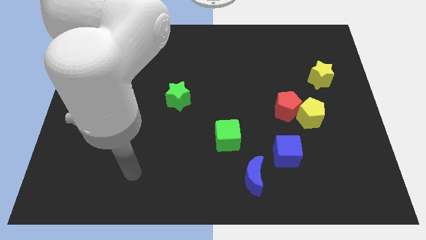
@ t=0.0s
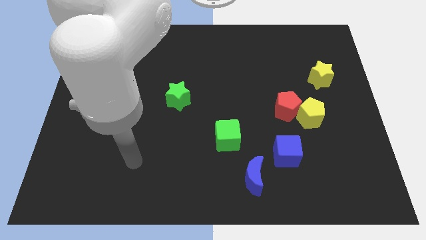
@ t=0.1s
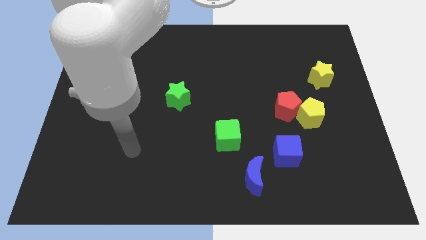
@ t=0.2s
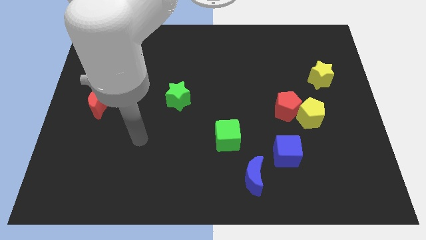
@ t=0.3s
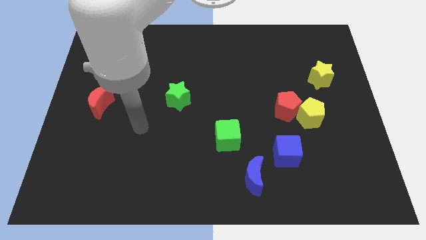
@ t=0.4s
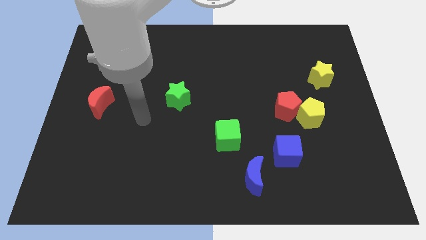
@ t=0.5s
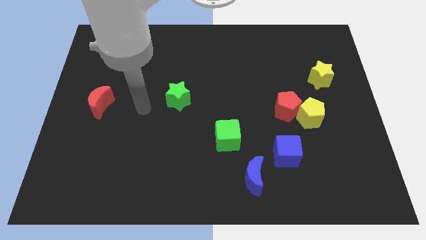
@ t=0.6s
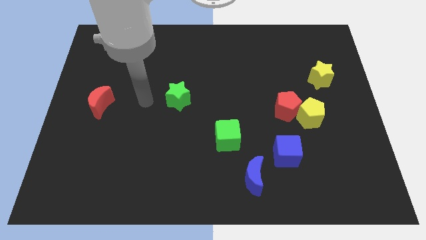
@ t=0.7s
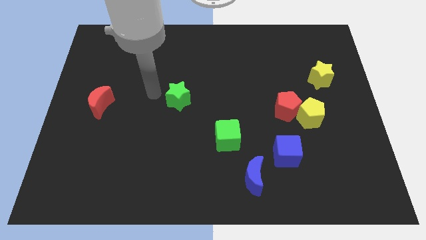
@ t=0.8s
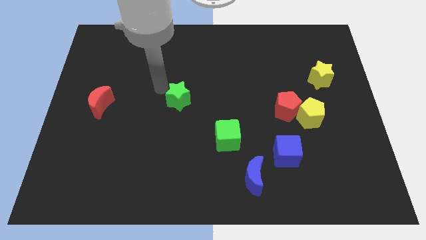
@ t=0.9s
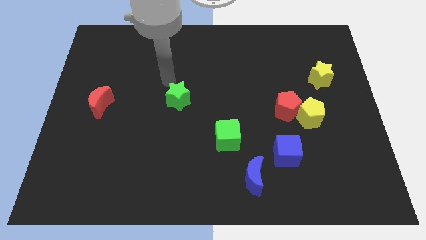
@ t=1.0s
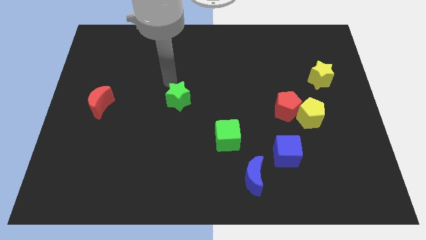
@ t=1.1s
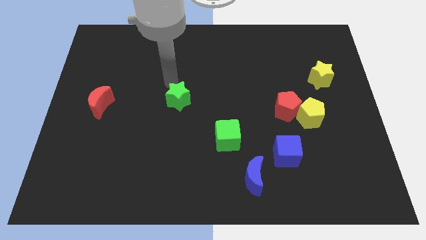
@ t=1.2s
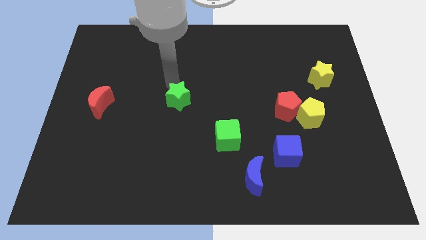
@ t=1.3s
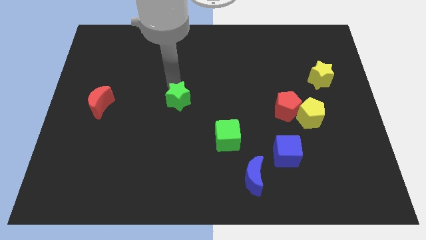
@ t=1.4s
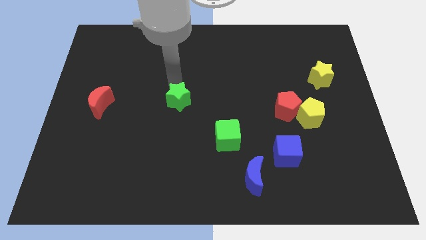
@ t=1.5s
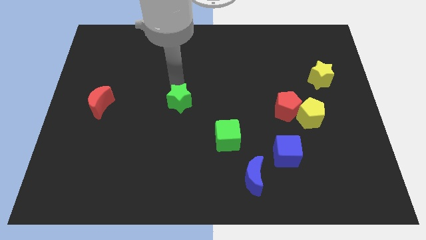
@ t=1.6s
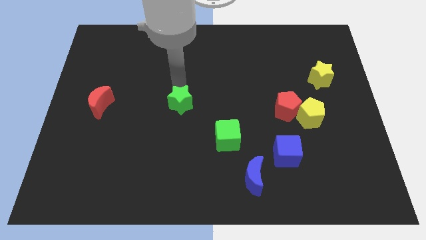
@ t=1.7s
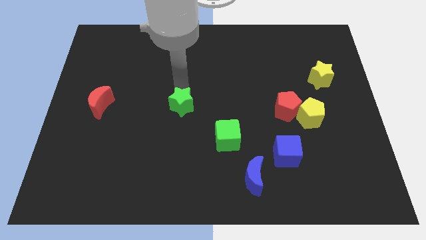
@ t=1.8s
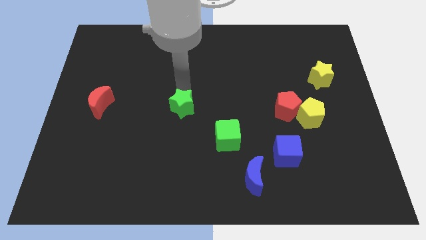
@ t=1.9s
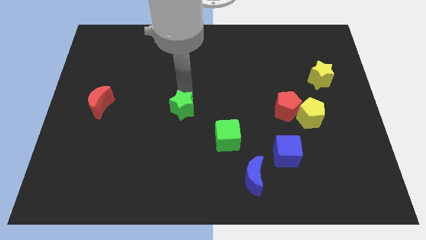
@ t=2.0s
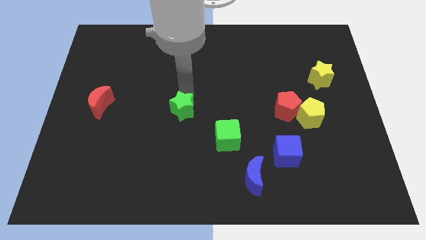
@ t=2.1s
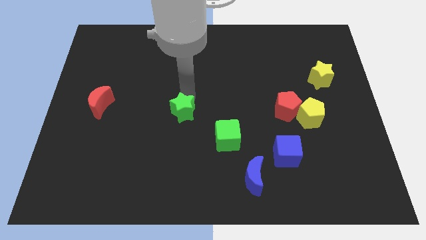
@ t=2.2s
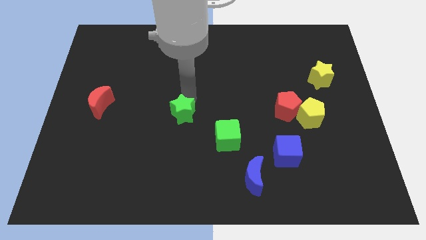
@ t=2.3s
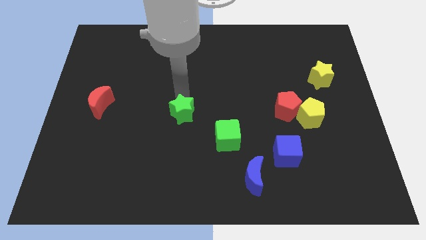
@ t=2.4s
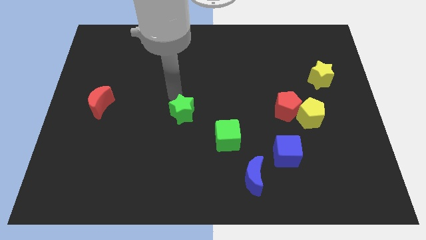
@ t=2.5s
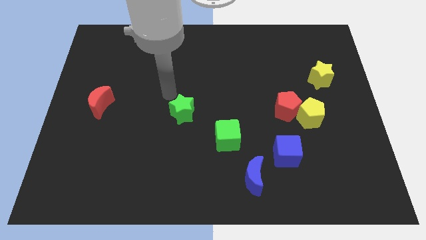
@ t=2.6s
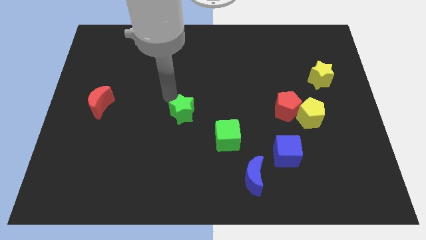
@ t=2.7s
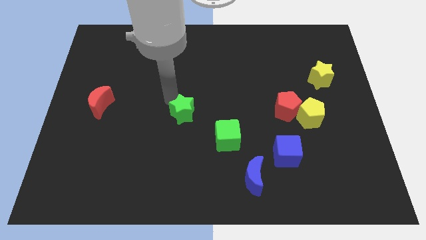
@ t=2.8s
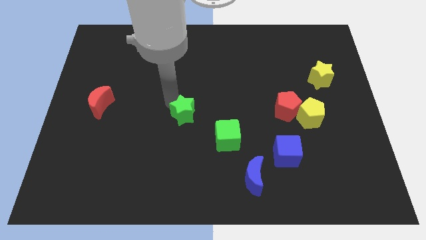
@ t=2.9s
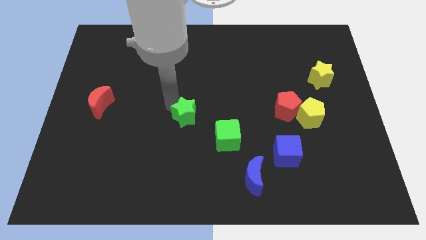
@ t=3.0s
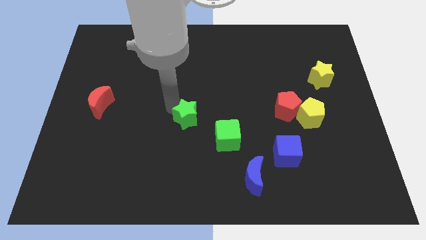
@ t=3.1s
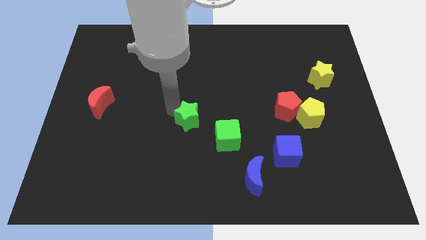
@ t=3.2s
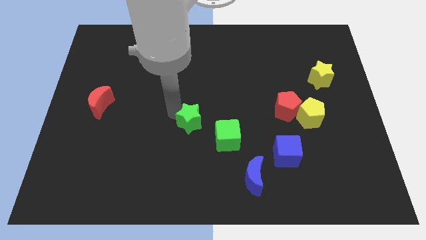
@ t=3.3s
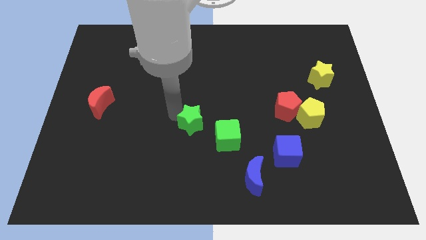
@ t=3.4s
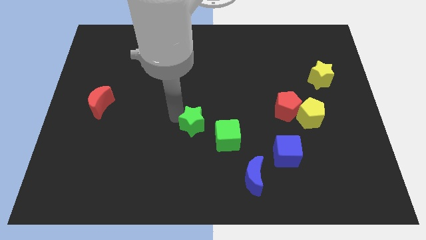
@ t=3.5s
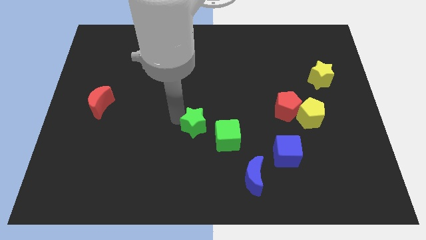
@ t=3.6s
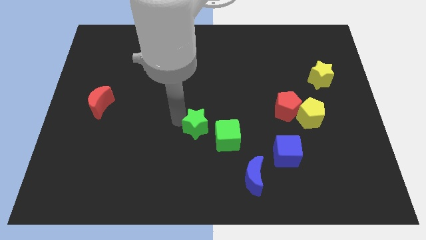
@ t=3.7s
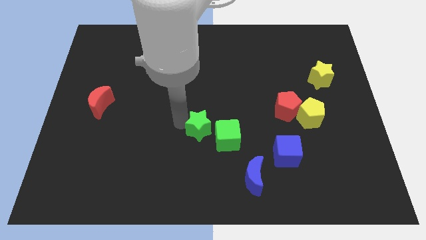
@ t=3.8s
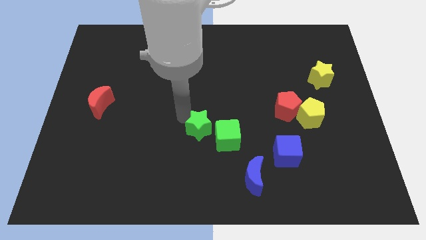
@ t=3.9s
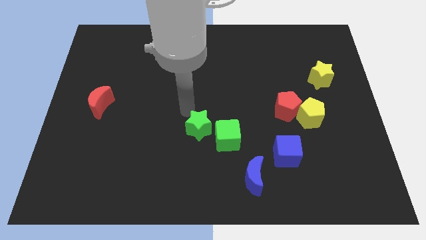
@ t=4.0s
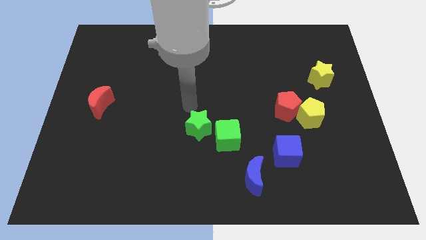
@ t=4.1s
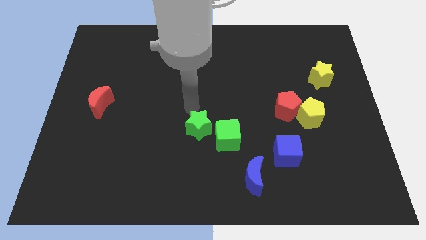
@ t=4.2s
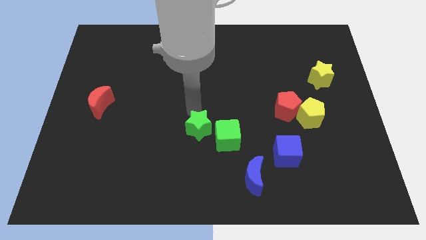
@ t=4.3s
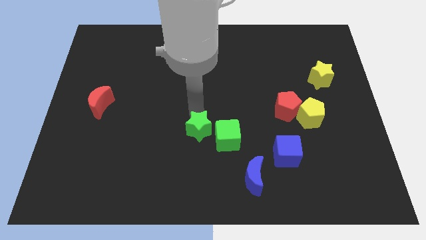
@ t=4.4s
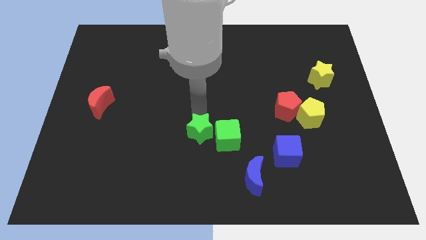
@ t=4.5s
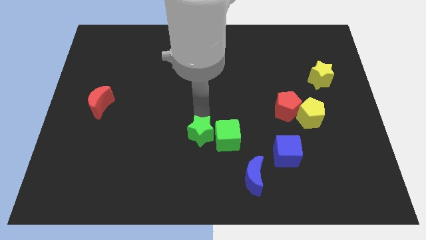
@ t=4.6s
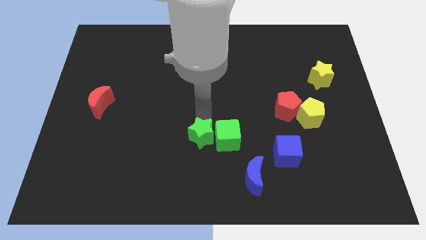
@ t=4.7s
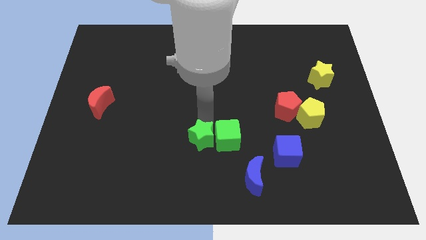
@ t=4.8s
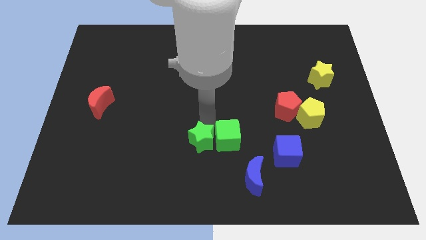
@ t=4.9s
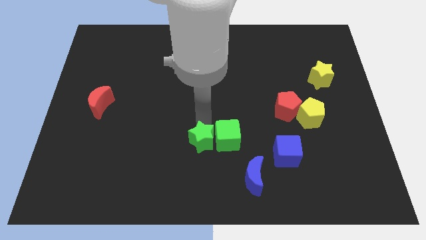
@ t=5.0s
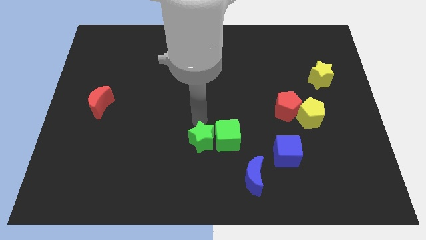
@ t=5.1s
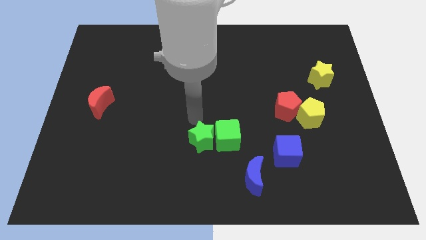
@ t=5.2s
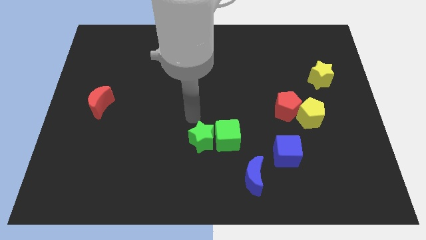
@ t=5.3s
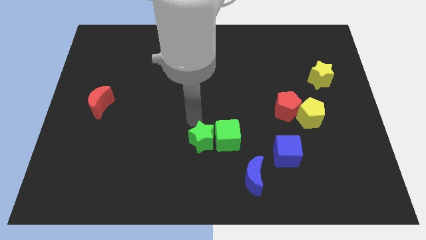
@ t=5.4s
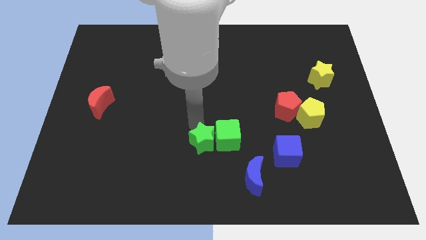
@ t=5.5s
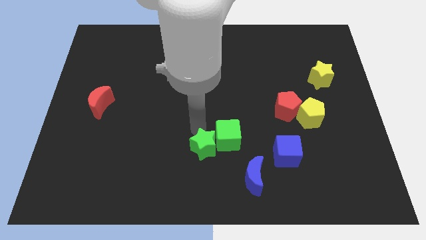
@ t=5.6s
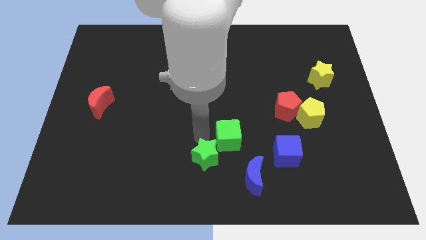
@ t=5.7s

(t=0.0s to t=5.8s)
push the green star to the bottom side

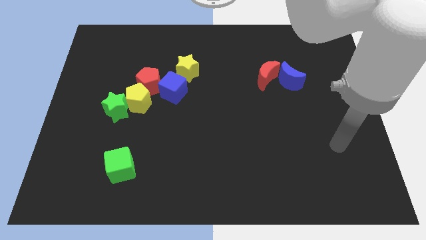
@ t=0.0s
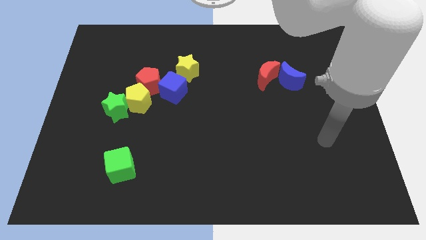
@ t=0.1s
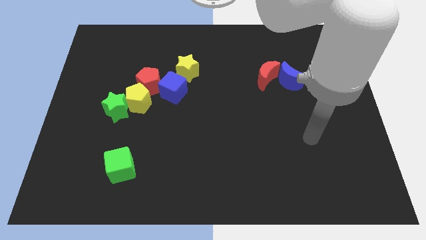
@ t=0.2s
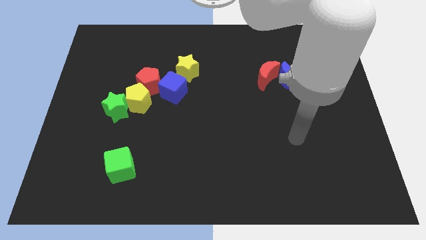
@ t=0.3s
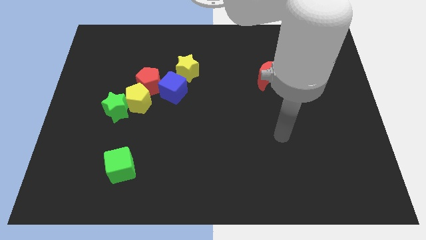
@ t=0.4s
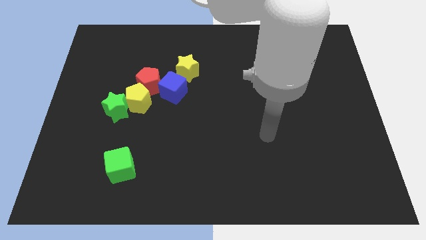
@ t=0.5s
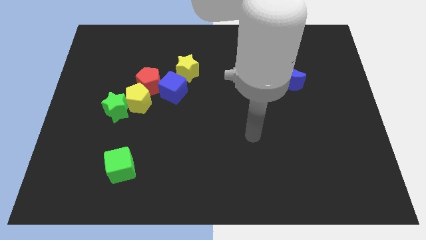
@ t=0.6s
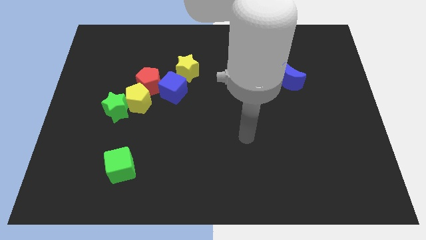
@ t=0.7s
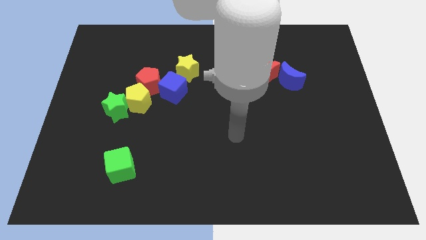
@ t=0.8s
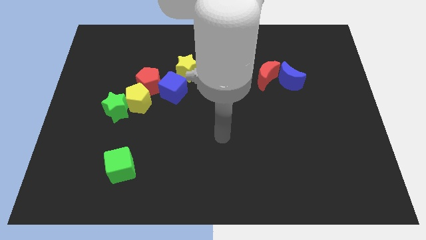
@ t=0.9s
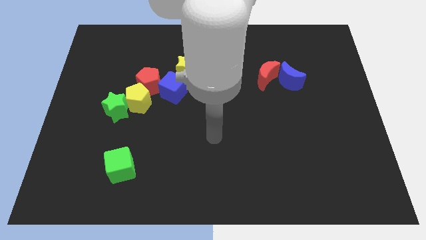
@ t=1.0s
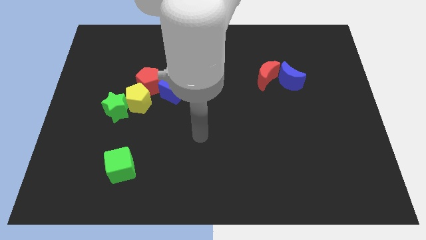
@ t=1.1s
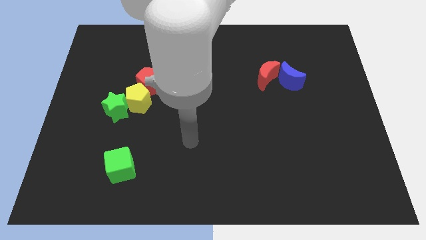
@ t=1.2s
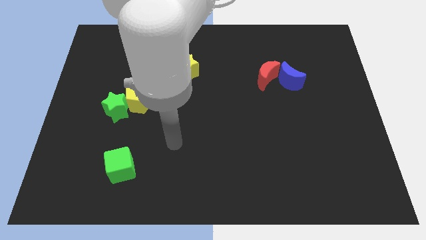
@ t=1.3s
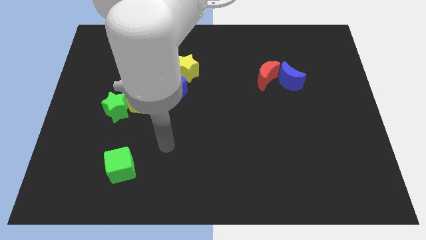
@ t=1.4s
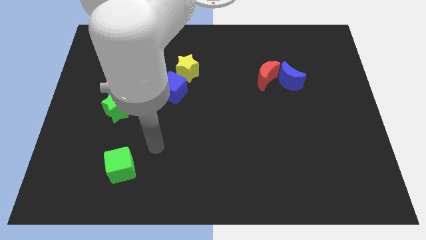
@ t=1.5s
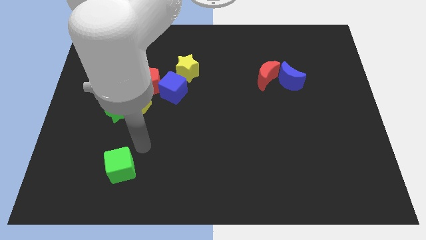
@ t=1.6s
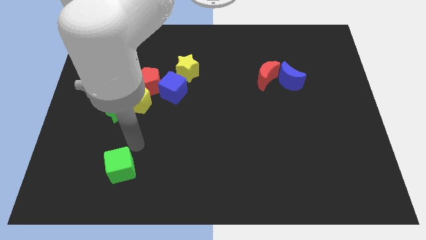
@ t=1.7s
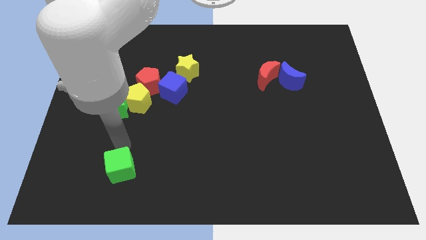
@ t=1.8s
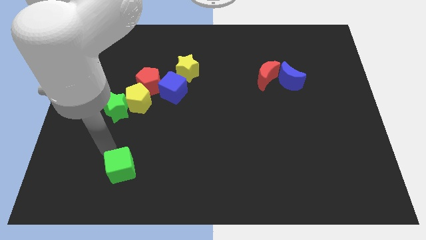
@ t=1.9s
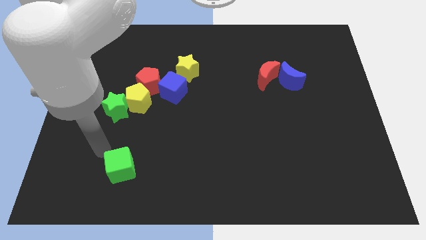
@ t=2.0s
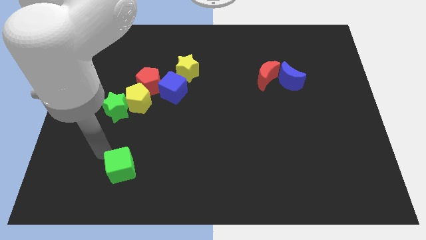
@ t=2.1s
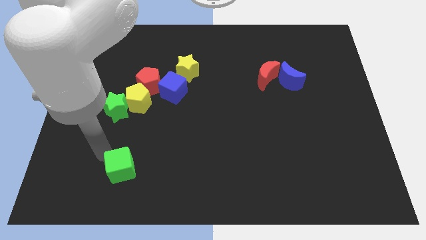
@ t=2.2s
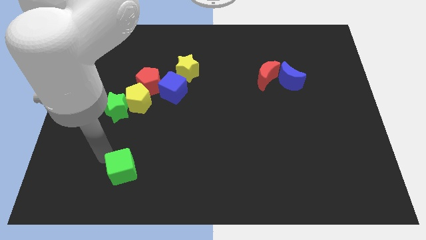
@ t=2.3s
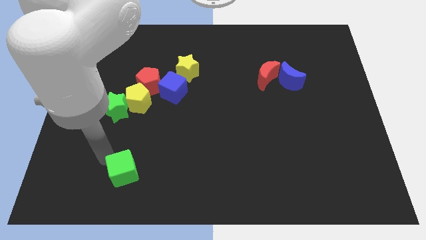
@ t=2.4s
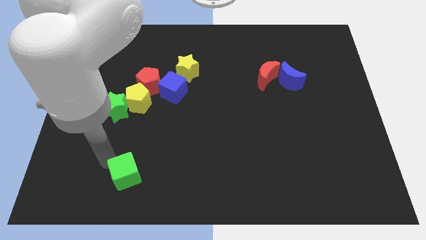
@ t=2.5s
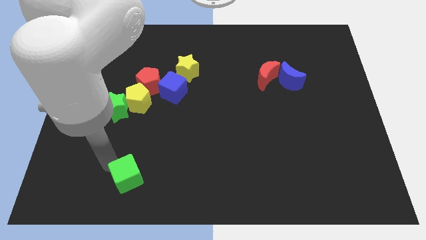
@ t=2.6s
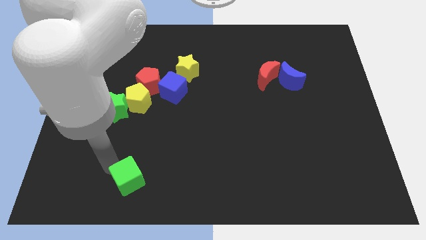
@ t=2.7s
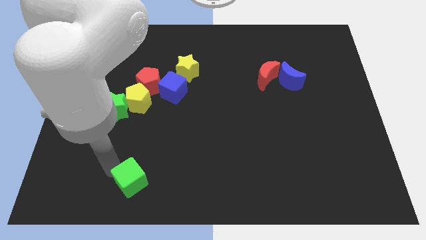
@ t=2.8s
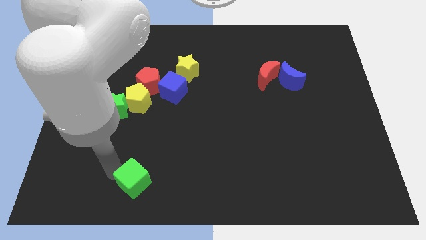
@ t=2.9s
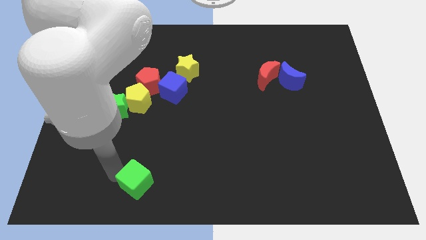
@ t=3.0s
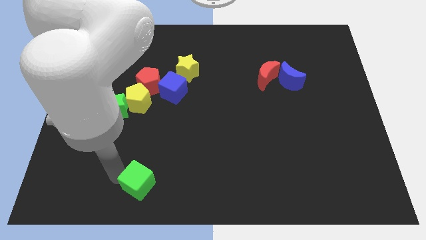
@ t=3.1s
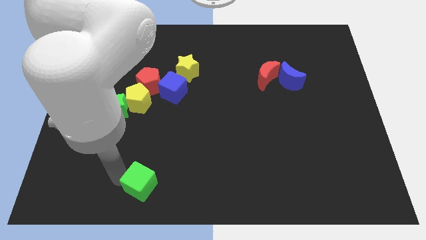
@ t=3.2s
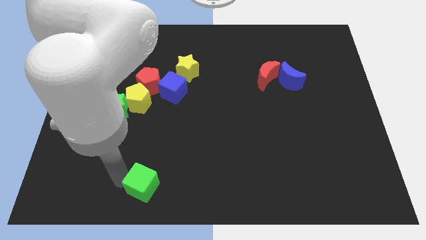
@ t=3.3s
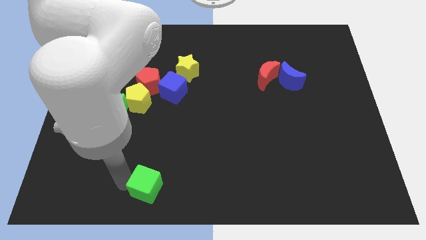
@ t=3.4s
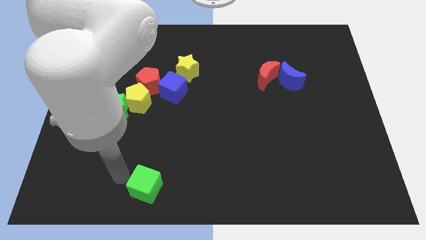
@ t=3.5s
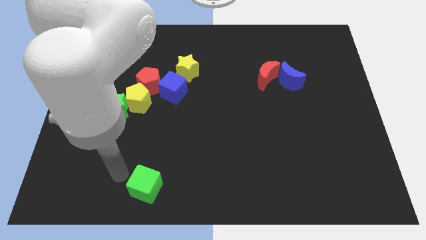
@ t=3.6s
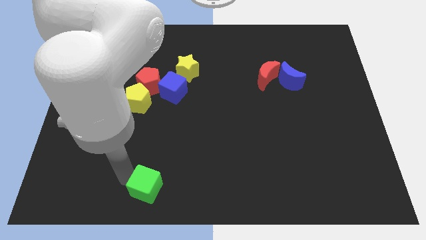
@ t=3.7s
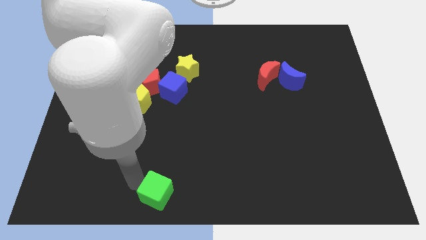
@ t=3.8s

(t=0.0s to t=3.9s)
slide the green cube to the bottom side
